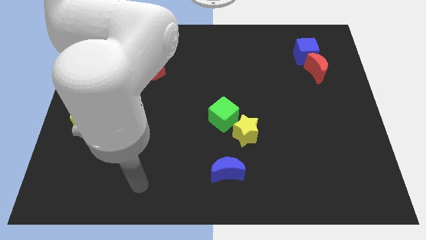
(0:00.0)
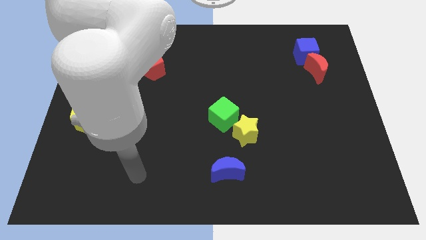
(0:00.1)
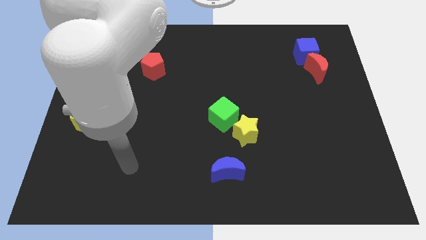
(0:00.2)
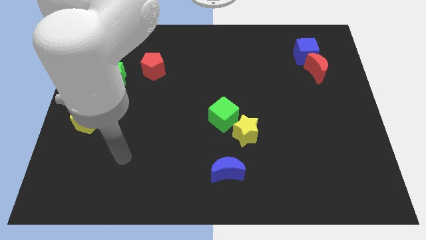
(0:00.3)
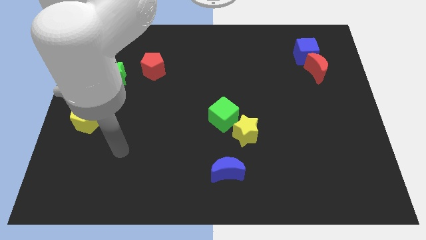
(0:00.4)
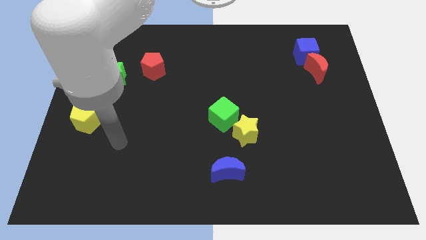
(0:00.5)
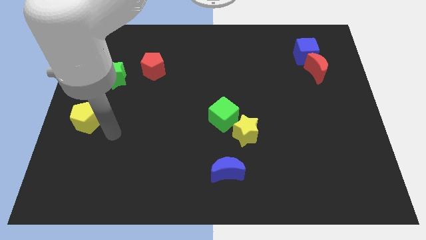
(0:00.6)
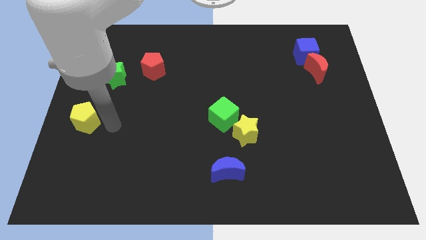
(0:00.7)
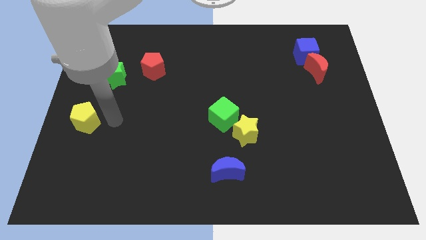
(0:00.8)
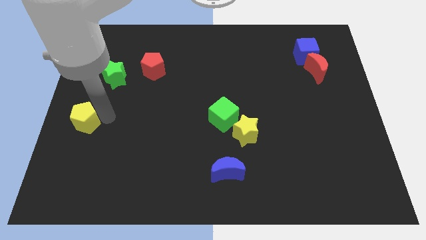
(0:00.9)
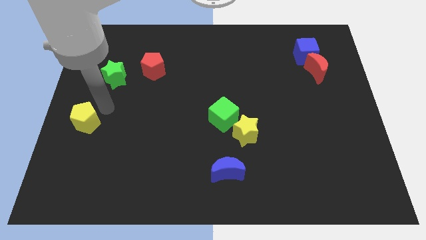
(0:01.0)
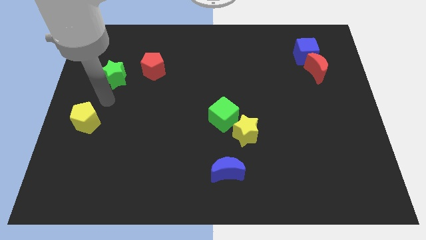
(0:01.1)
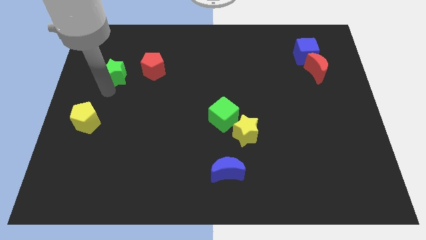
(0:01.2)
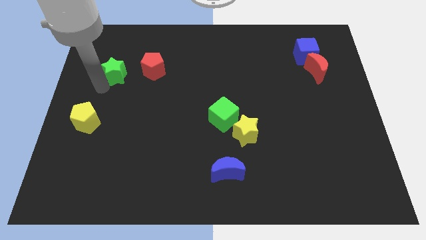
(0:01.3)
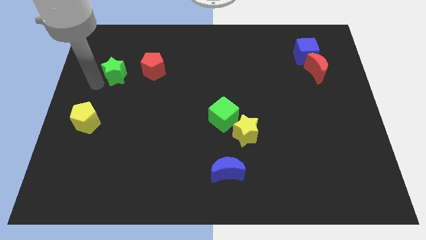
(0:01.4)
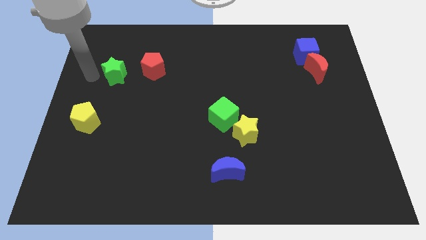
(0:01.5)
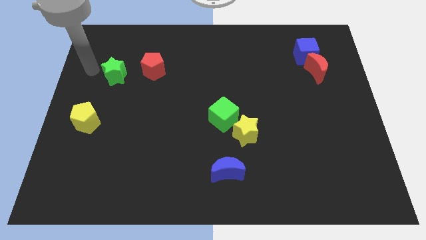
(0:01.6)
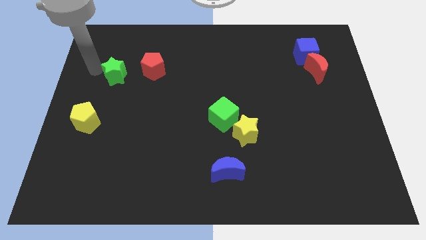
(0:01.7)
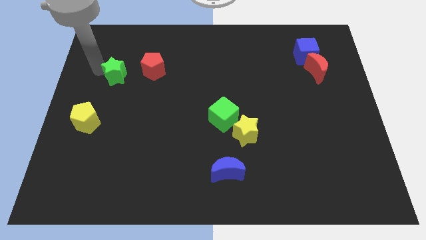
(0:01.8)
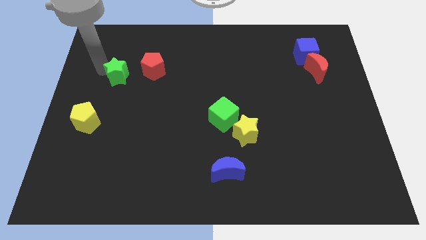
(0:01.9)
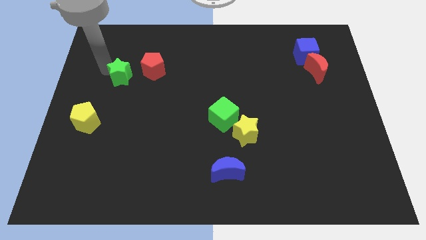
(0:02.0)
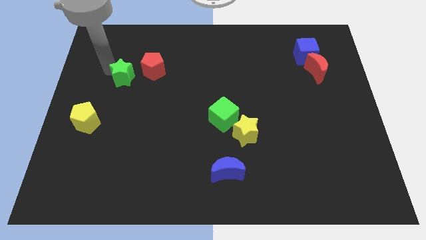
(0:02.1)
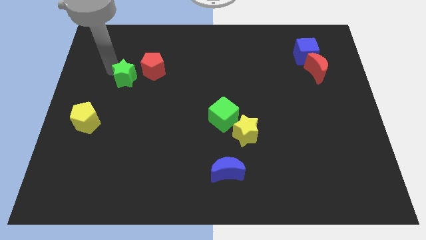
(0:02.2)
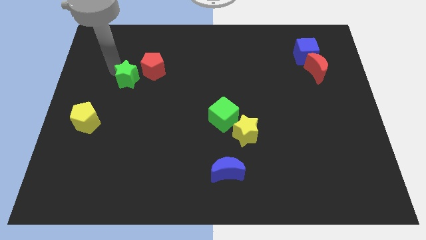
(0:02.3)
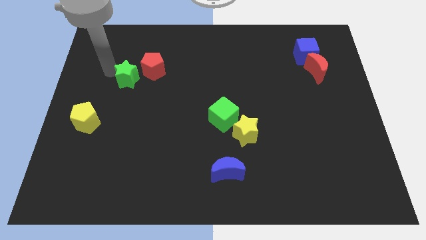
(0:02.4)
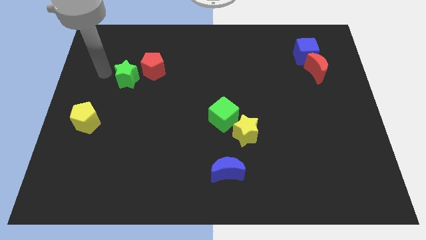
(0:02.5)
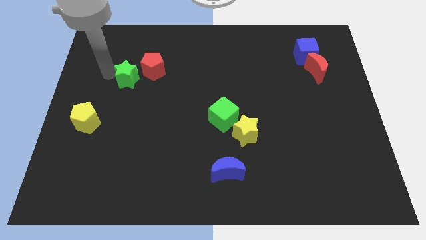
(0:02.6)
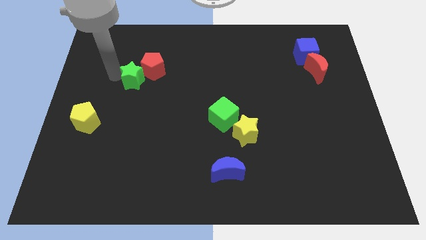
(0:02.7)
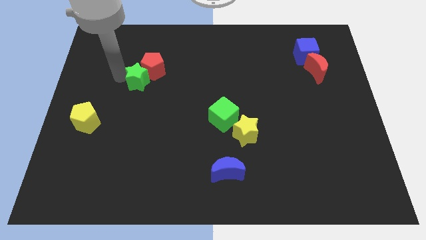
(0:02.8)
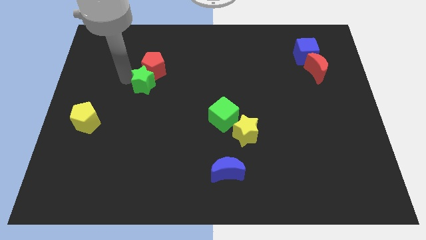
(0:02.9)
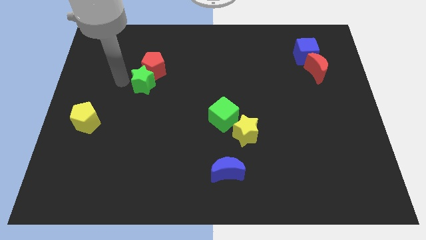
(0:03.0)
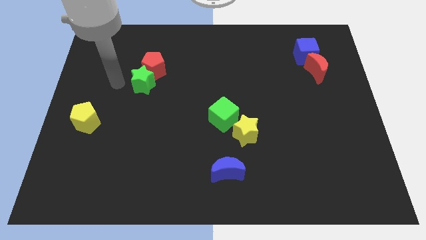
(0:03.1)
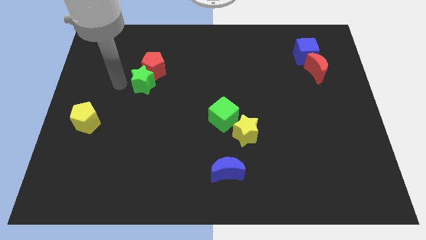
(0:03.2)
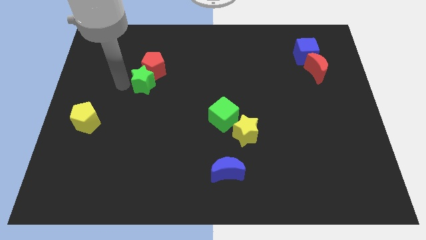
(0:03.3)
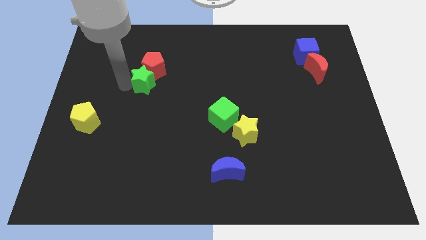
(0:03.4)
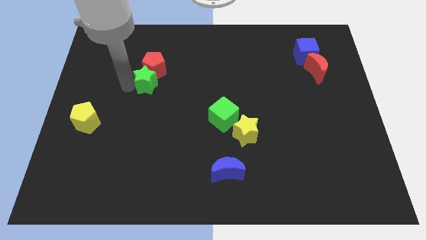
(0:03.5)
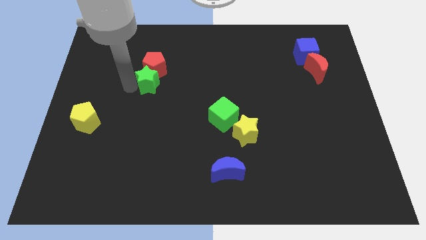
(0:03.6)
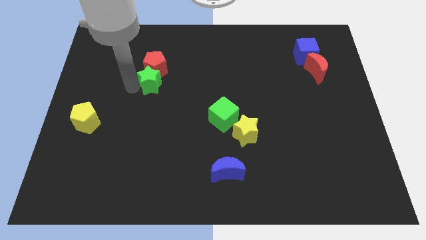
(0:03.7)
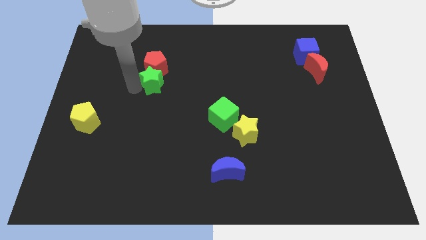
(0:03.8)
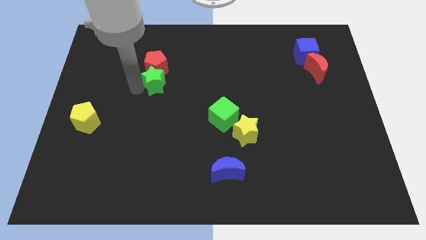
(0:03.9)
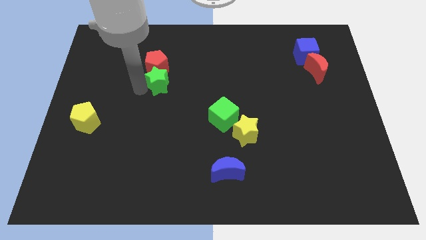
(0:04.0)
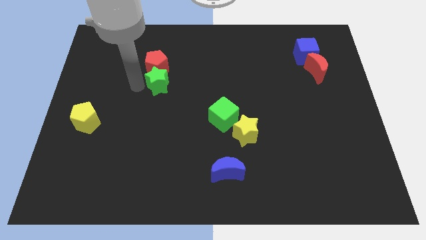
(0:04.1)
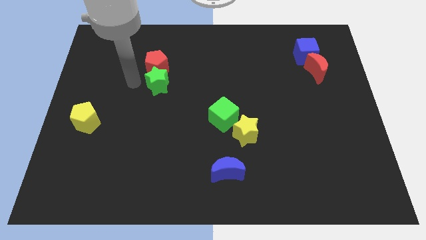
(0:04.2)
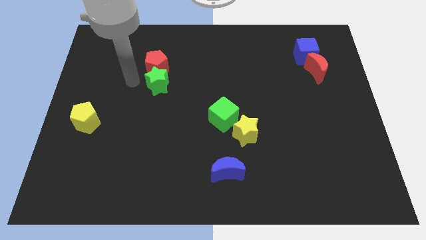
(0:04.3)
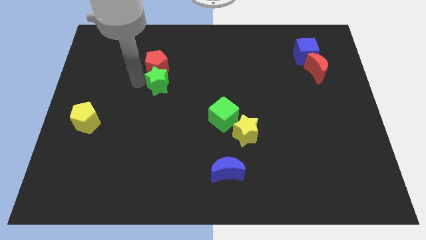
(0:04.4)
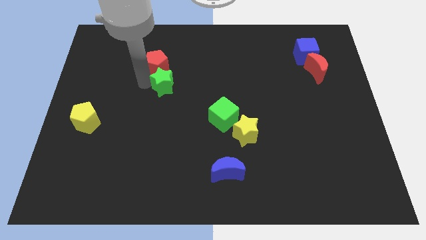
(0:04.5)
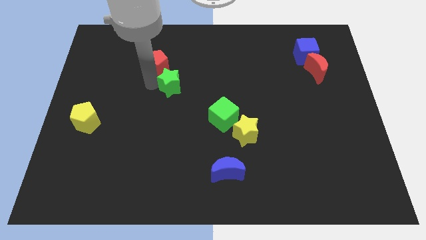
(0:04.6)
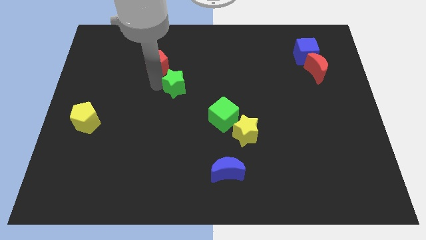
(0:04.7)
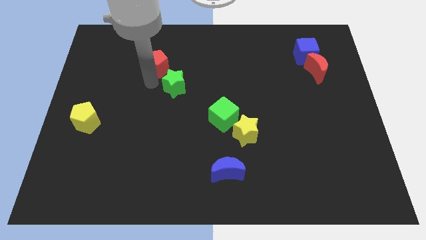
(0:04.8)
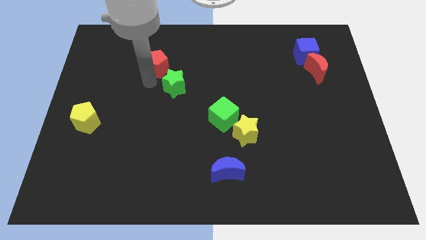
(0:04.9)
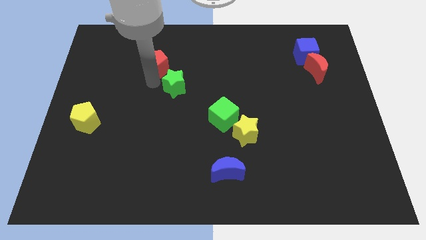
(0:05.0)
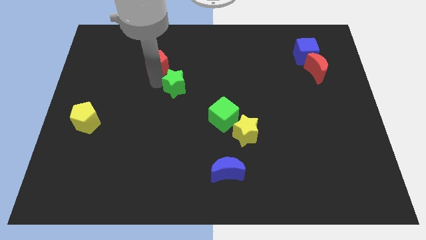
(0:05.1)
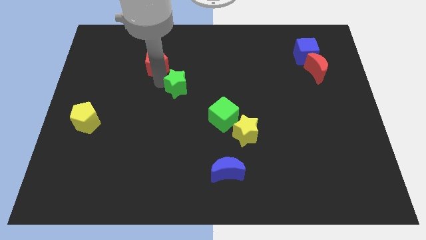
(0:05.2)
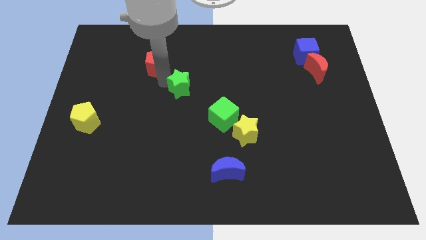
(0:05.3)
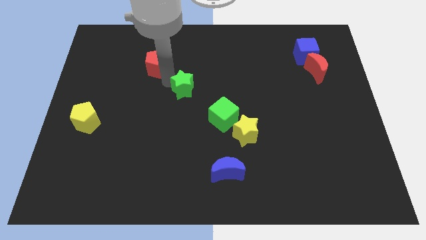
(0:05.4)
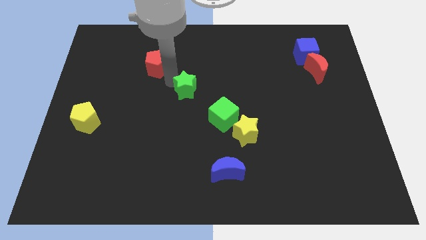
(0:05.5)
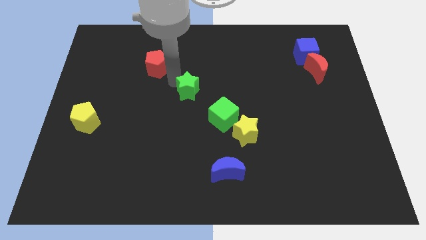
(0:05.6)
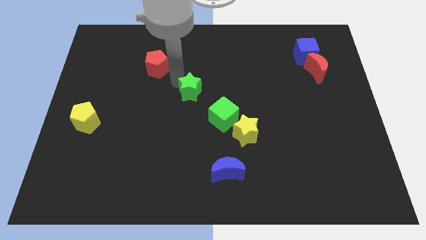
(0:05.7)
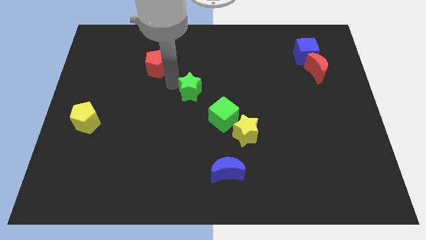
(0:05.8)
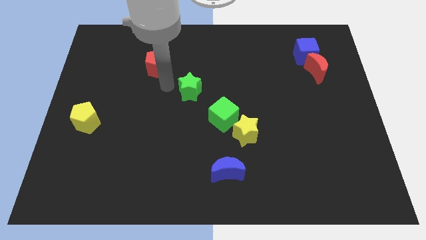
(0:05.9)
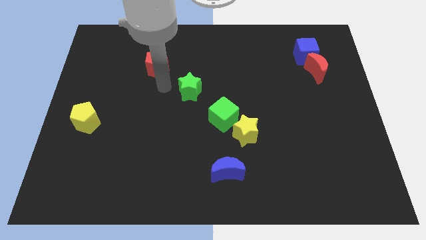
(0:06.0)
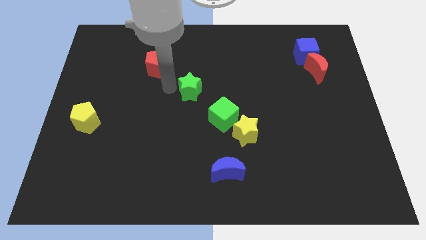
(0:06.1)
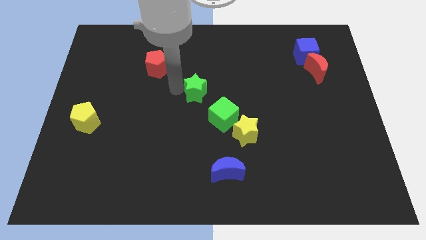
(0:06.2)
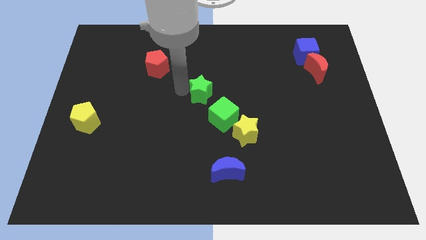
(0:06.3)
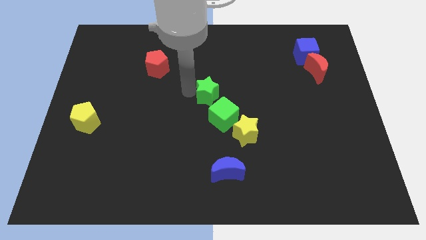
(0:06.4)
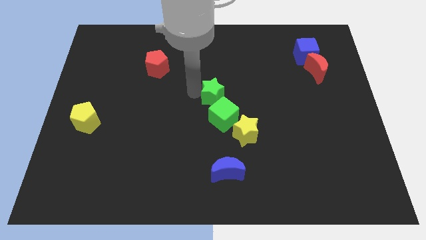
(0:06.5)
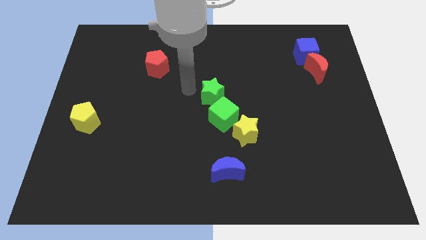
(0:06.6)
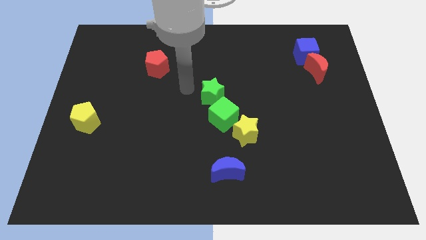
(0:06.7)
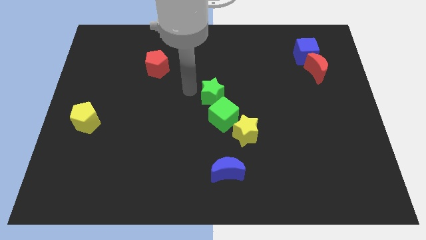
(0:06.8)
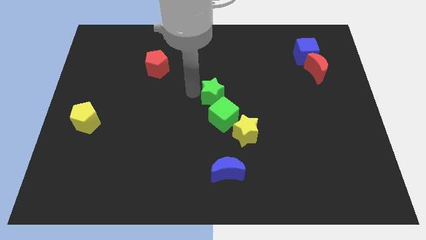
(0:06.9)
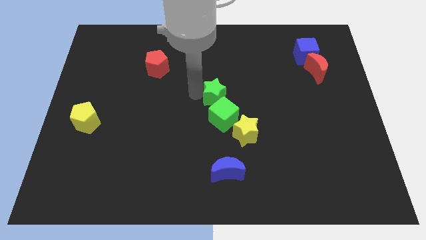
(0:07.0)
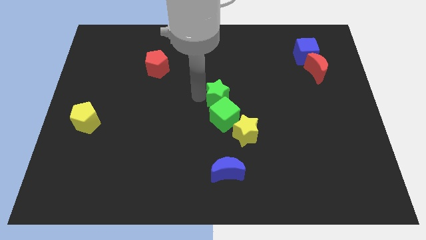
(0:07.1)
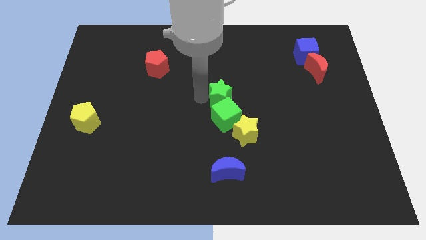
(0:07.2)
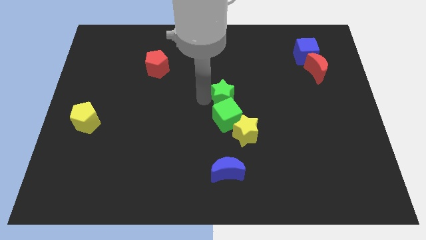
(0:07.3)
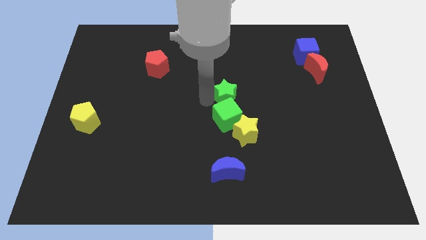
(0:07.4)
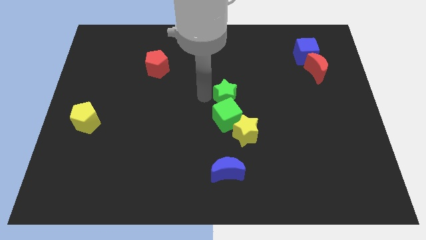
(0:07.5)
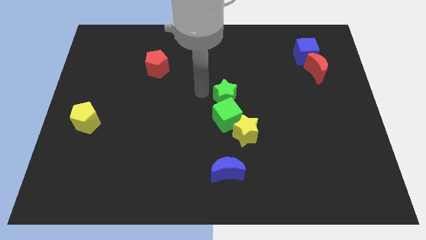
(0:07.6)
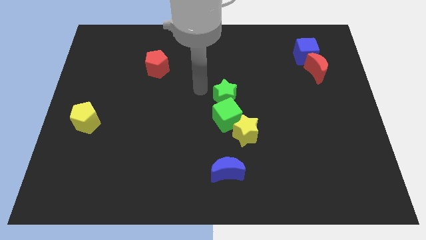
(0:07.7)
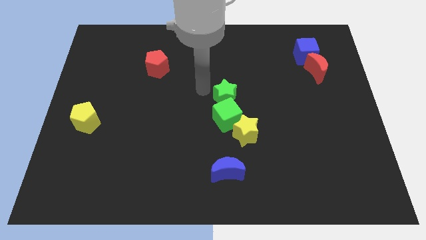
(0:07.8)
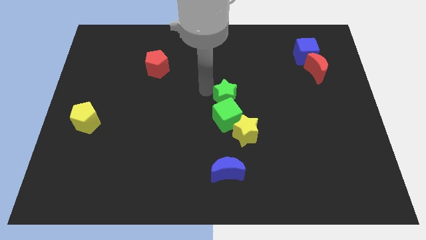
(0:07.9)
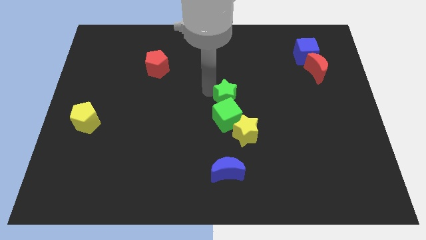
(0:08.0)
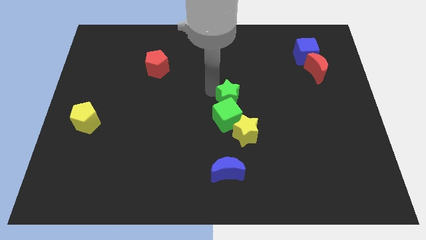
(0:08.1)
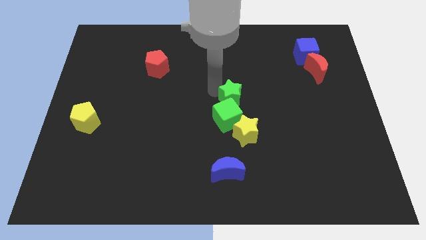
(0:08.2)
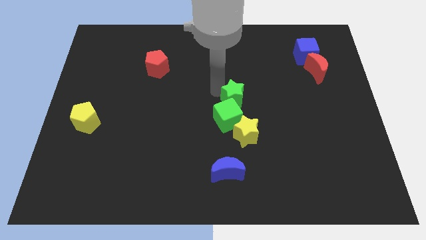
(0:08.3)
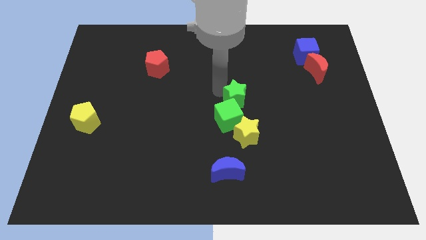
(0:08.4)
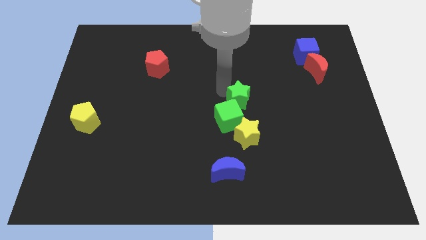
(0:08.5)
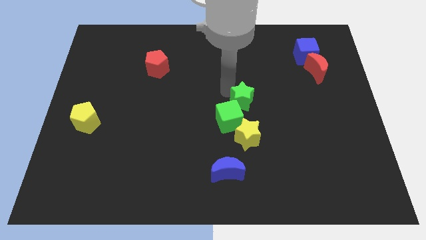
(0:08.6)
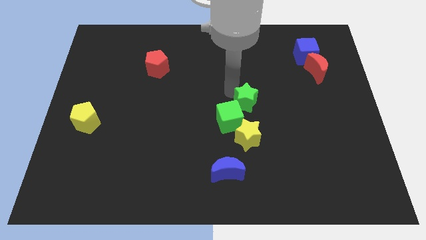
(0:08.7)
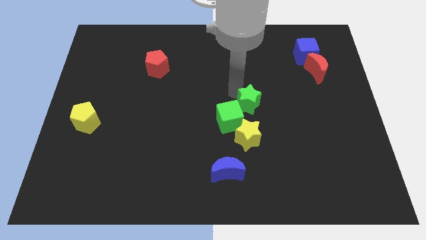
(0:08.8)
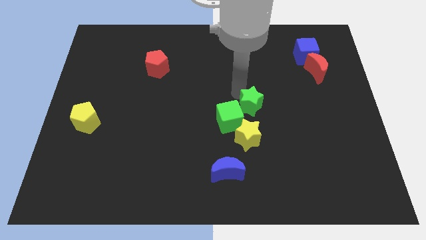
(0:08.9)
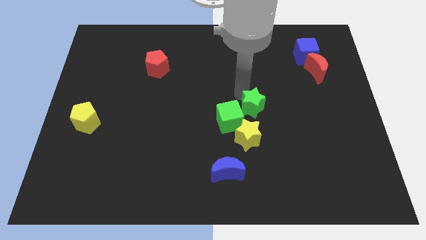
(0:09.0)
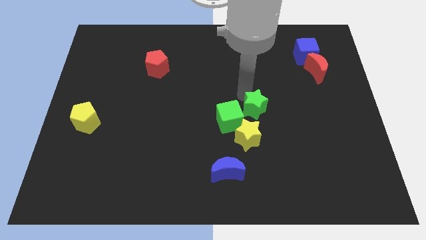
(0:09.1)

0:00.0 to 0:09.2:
move the green star to the top right side of the yellow star
